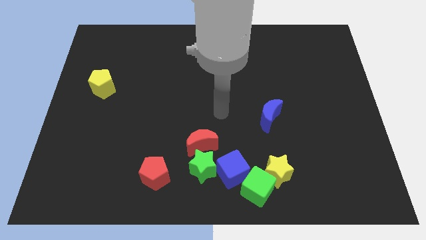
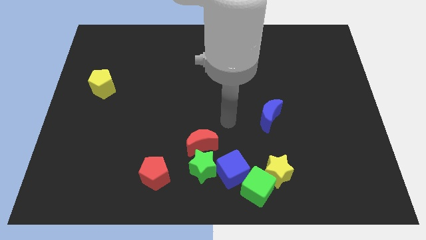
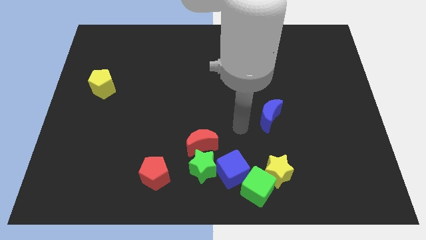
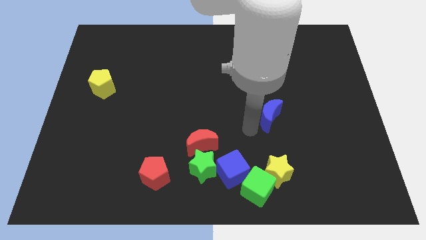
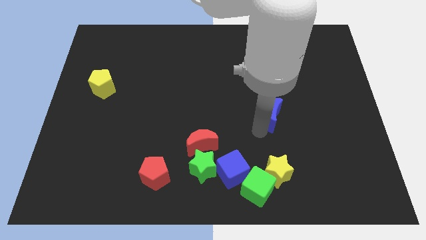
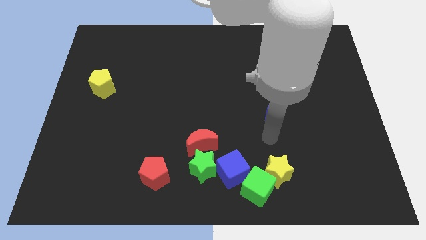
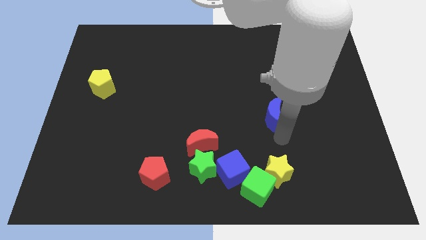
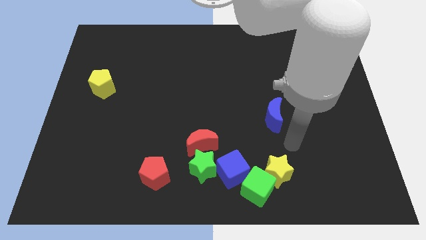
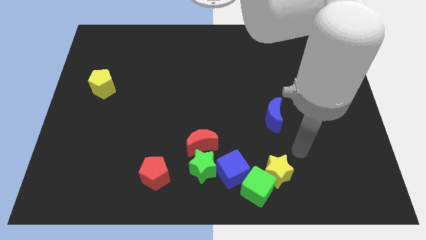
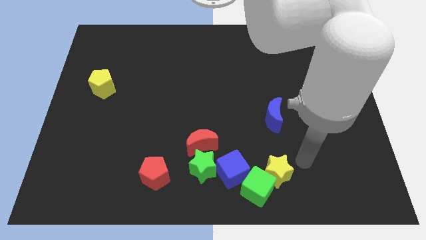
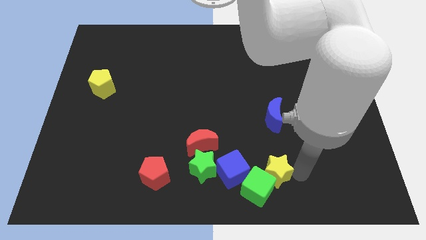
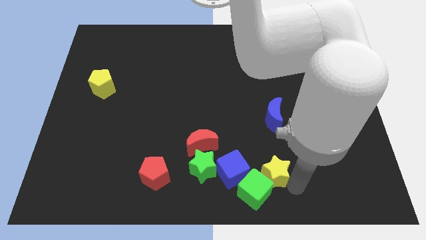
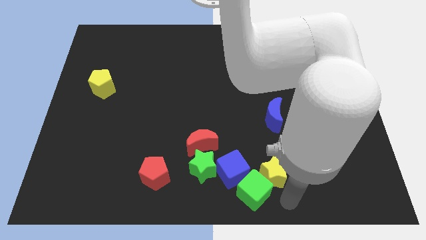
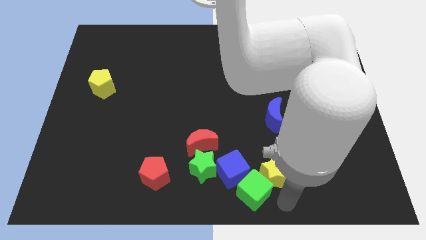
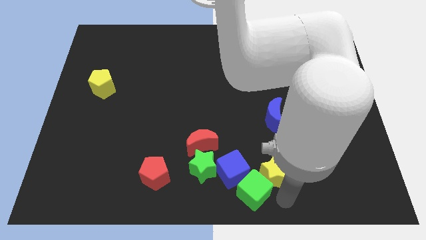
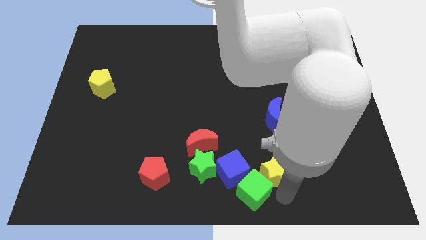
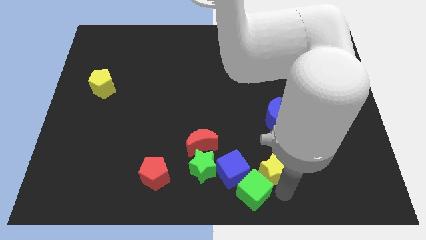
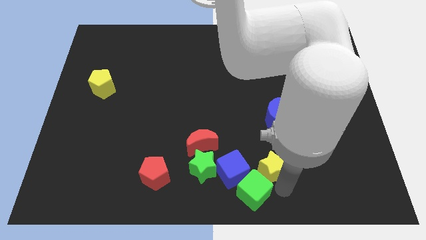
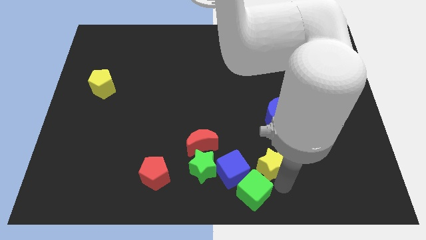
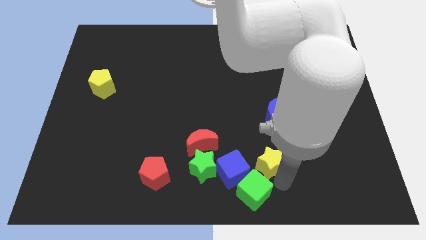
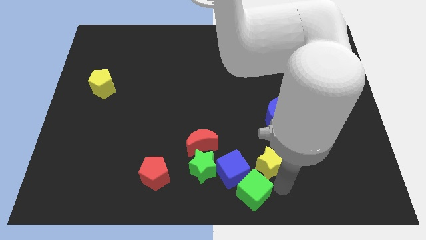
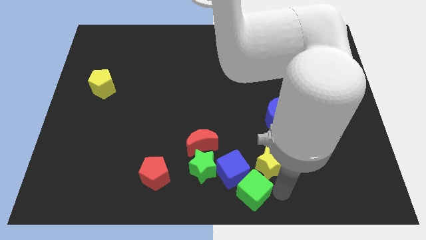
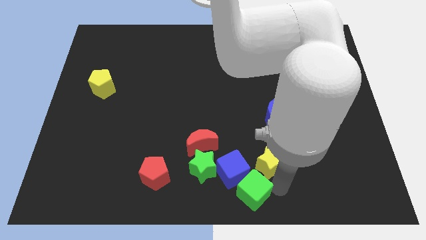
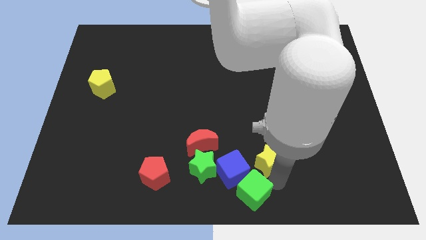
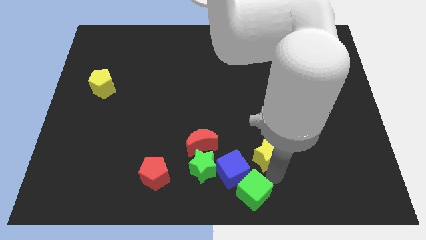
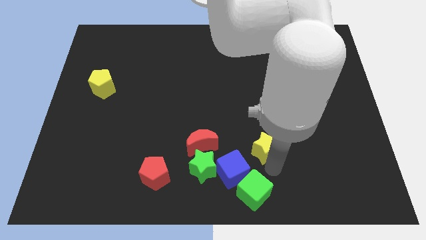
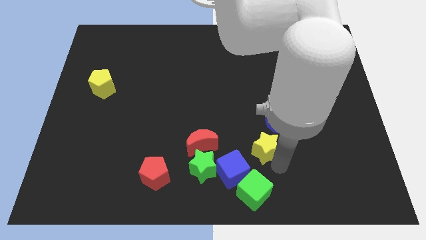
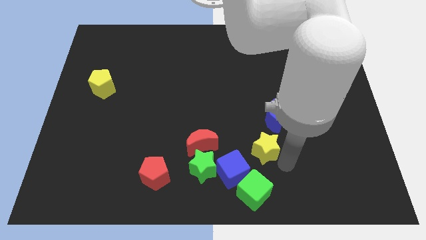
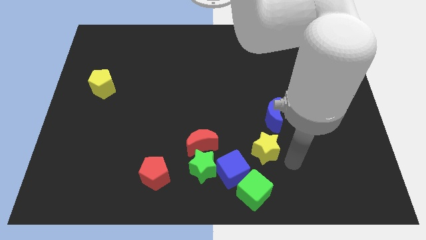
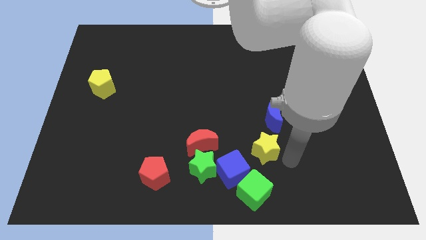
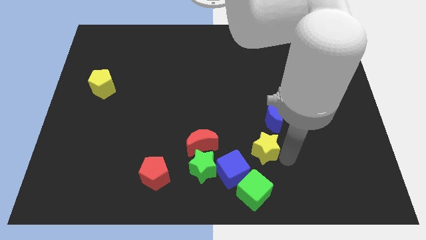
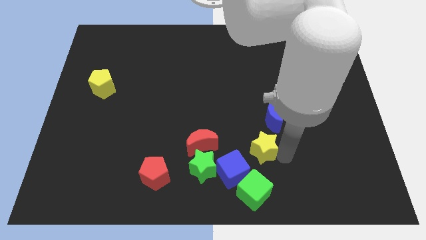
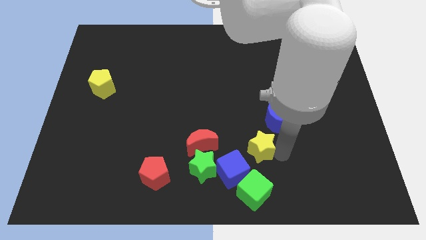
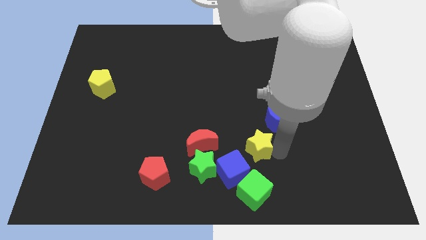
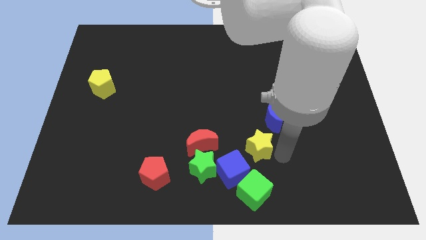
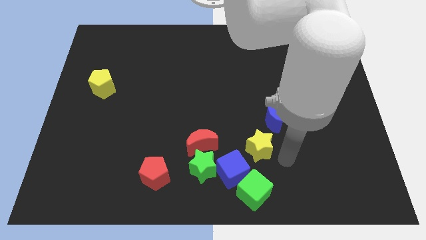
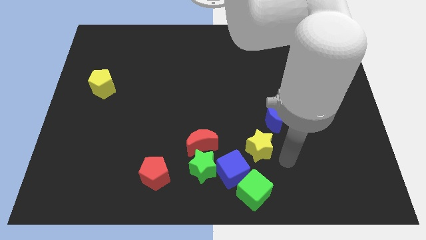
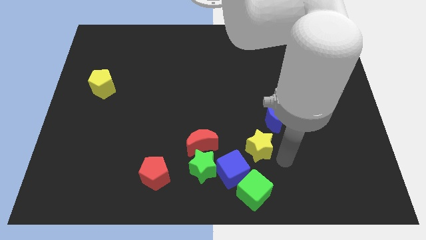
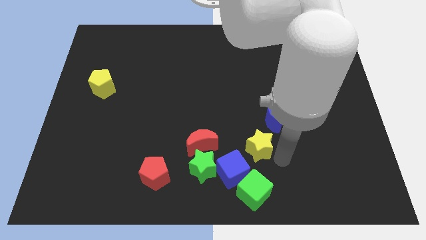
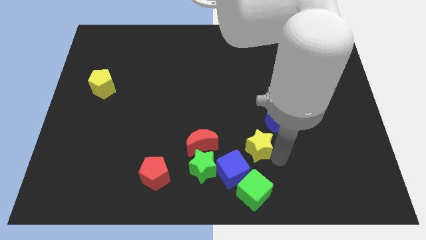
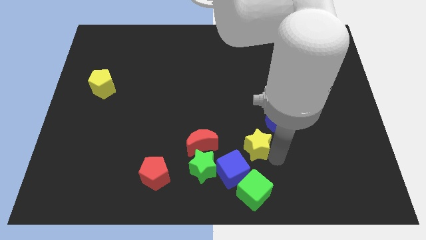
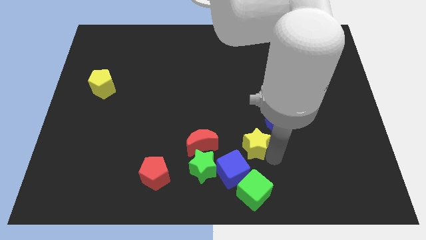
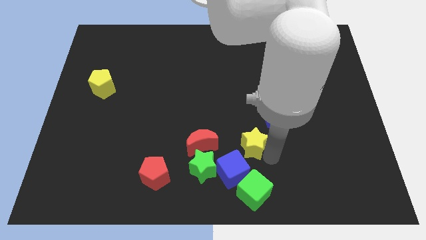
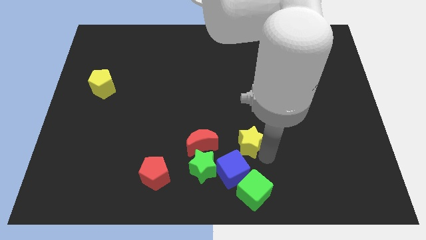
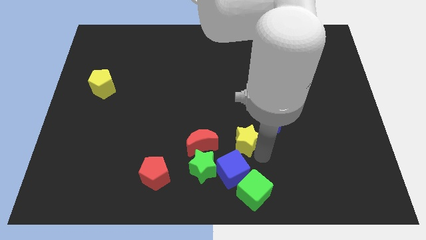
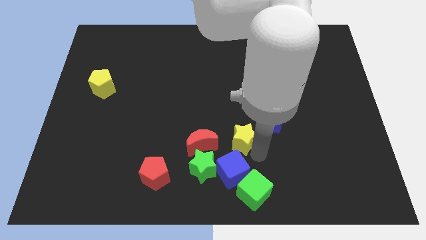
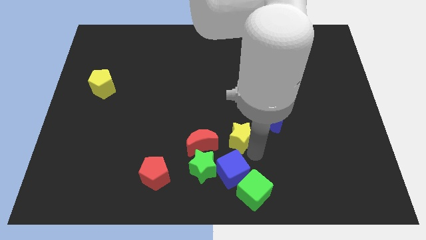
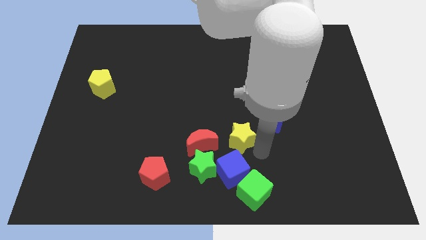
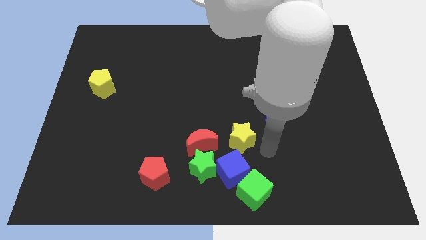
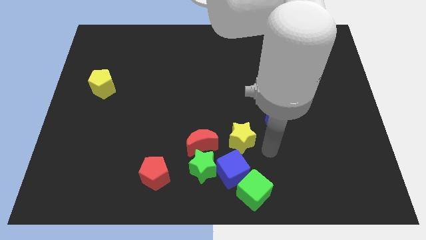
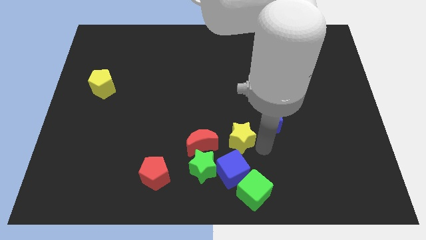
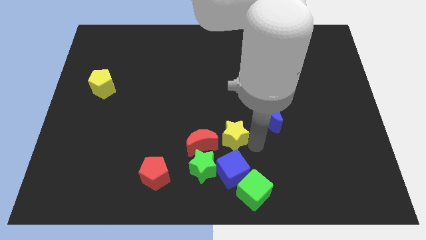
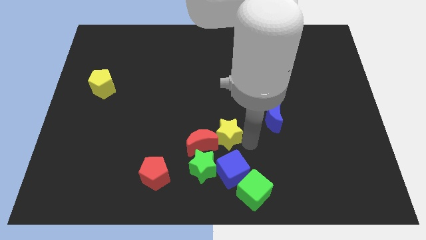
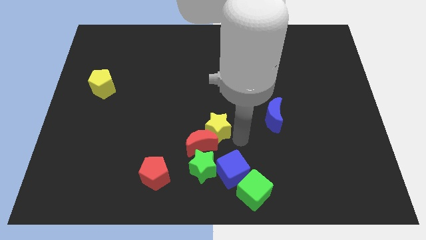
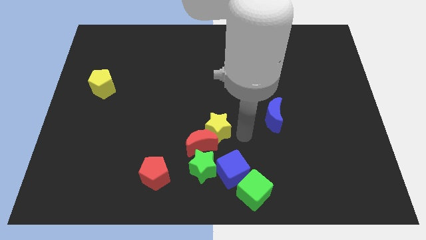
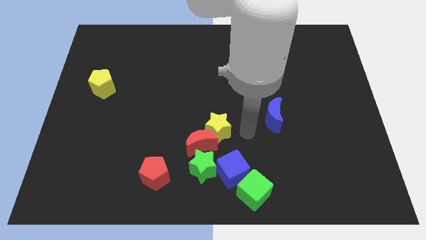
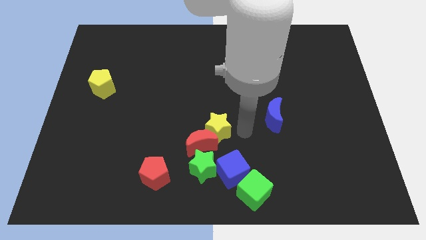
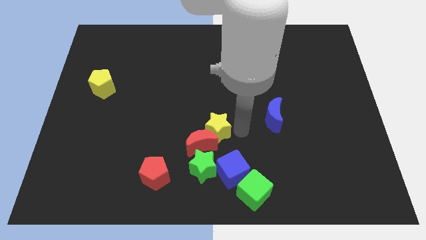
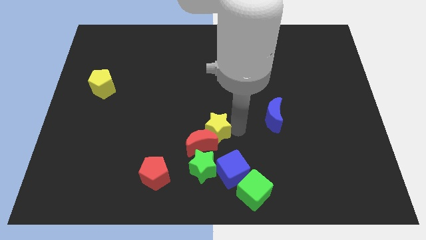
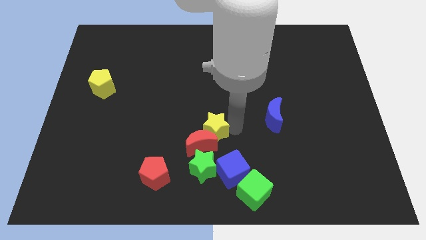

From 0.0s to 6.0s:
move the yellow star to the left a little bit

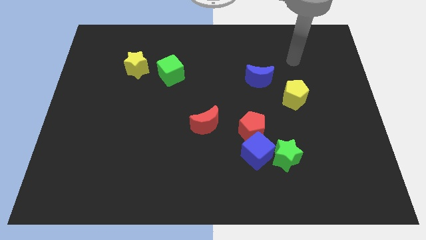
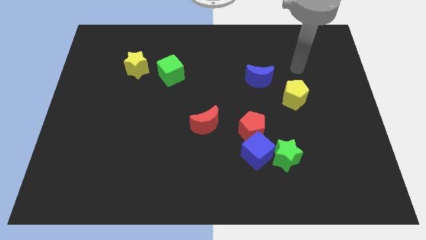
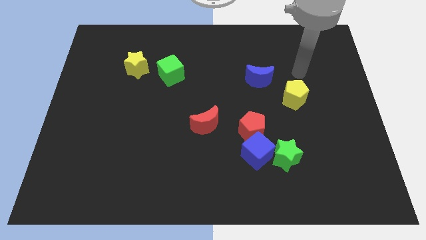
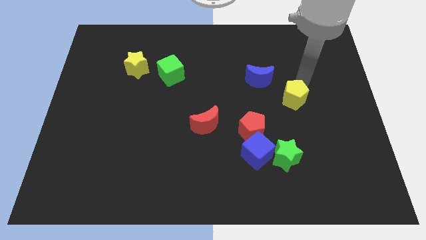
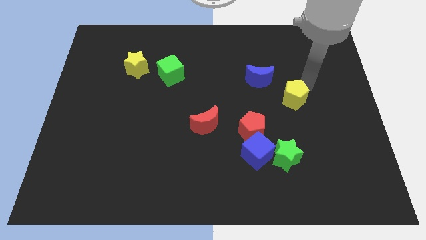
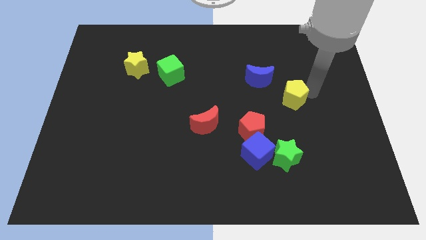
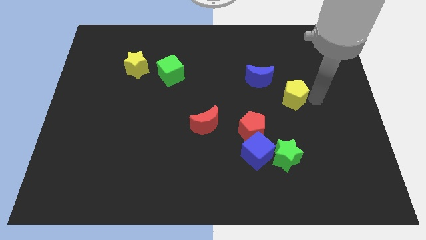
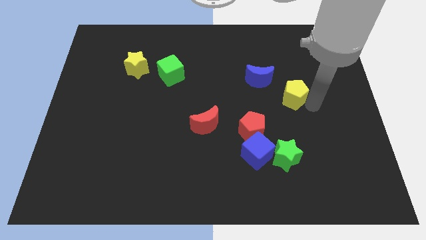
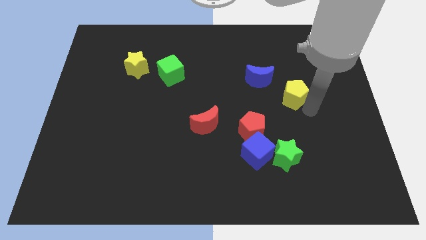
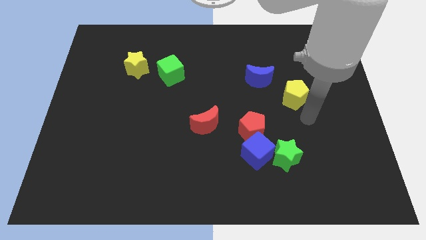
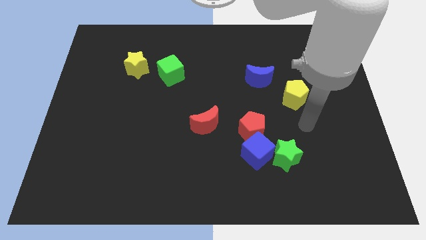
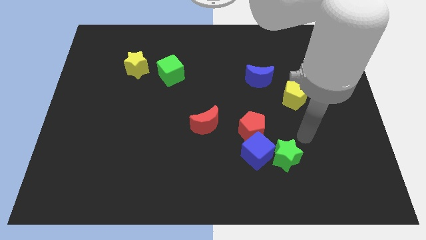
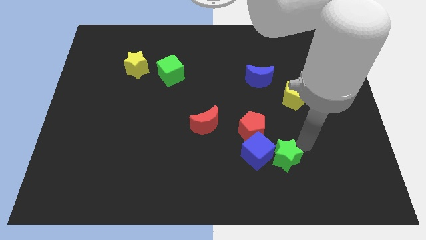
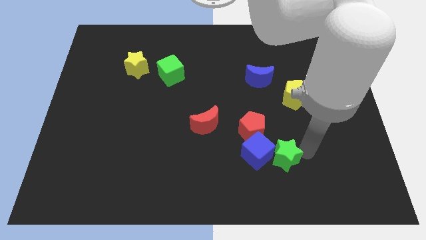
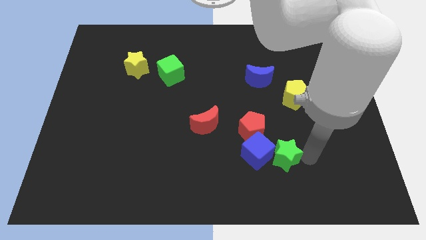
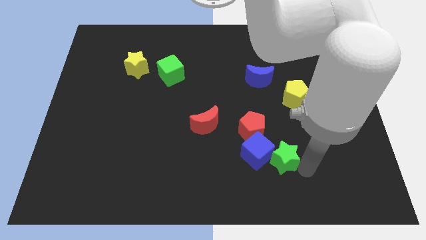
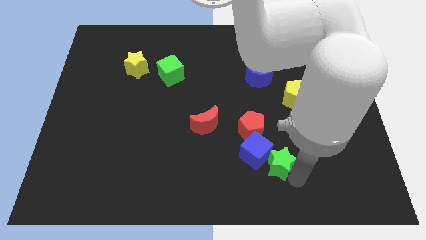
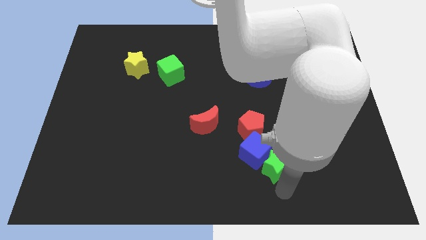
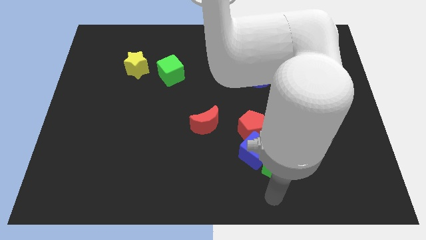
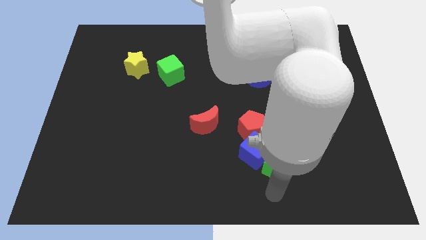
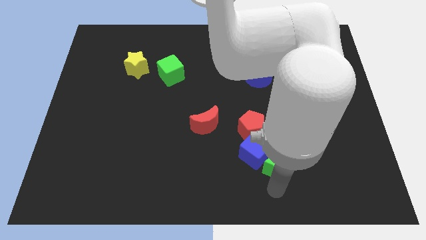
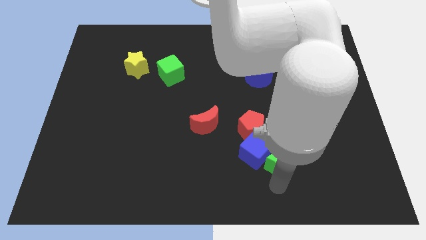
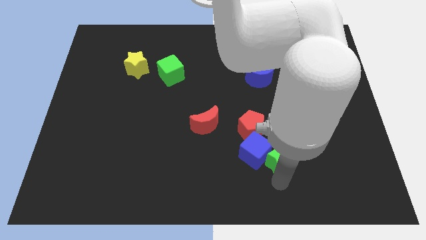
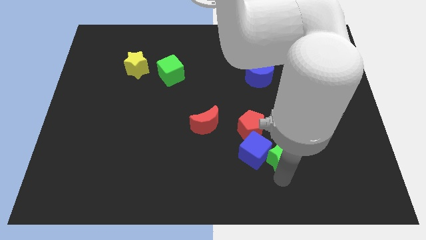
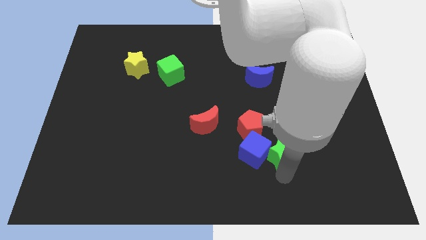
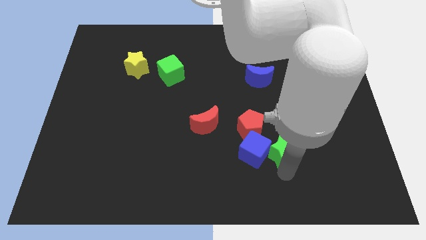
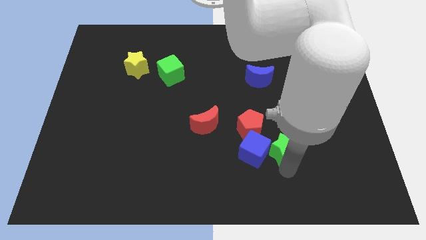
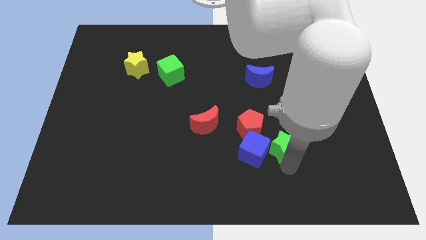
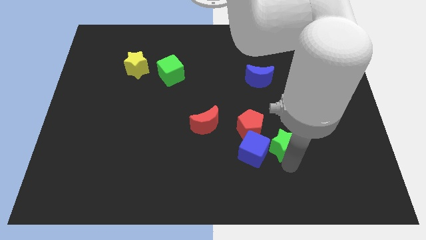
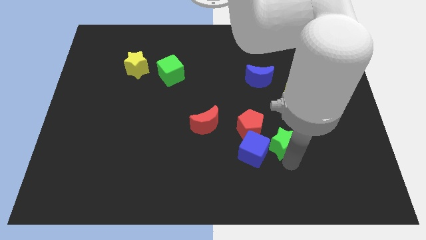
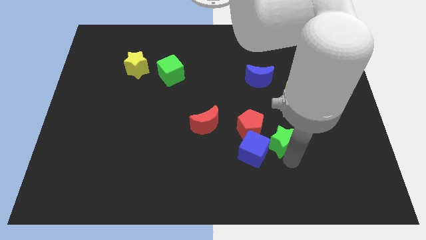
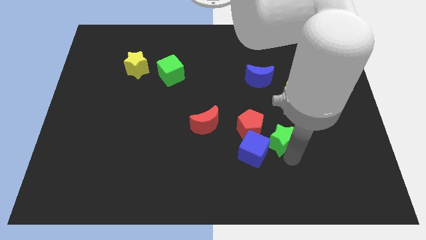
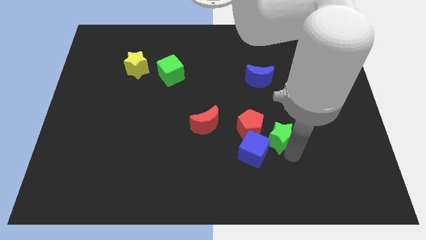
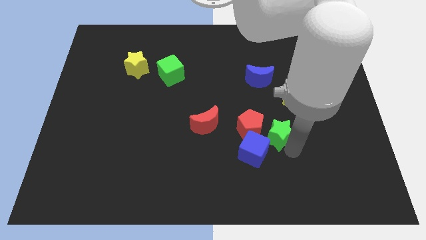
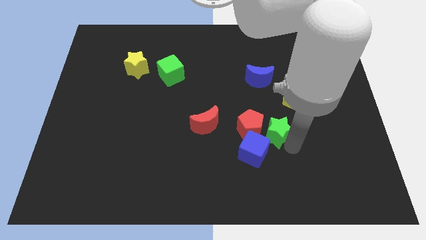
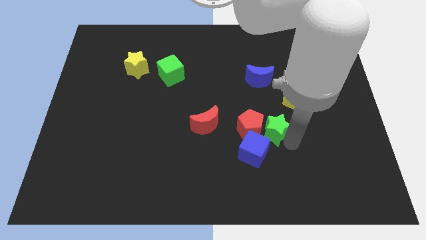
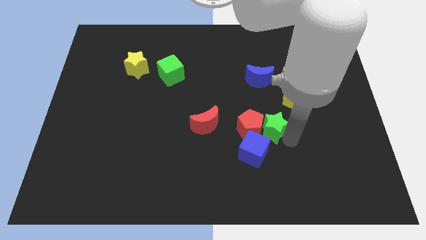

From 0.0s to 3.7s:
slightly push the green star upwards
